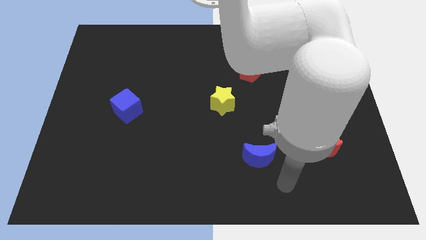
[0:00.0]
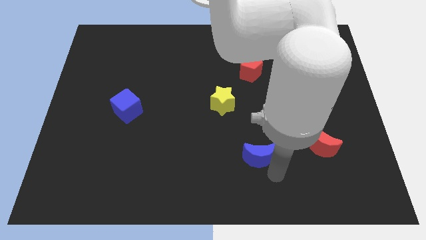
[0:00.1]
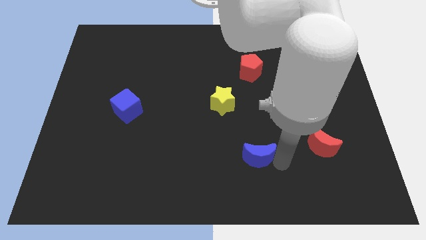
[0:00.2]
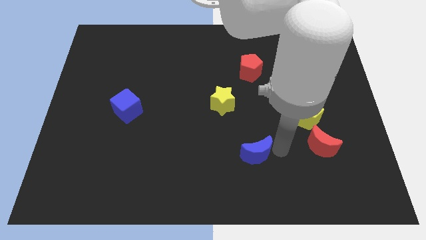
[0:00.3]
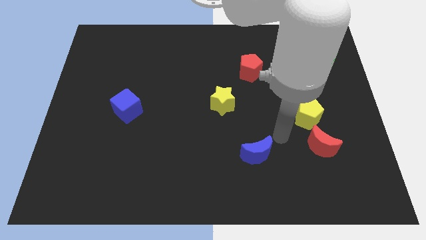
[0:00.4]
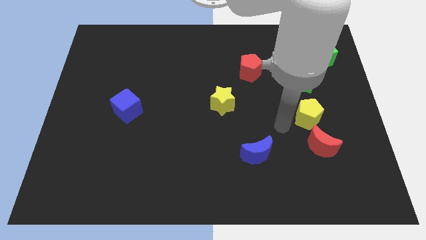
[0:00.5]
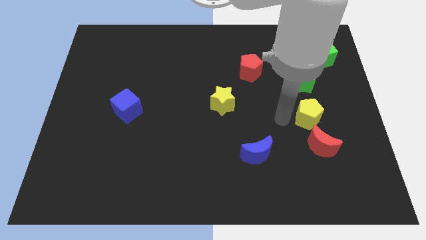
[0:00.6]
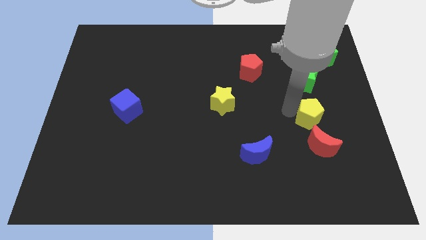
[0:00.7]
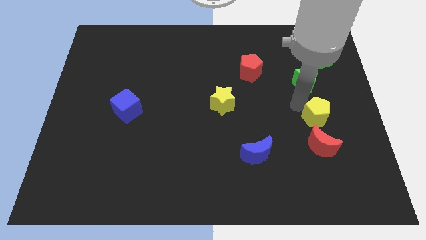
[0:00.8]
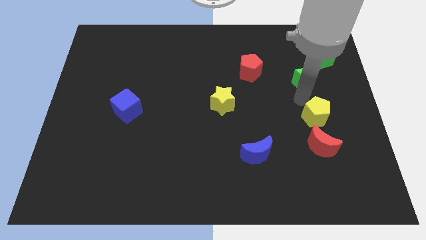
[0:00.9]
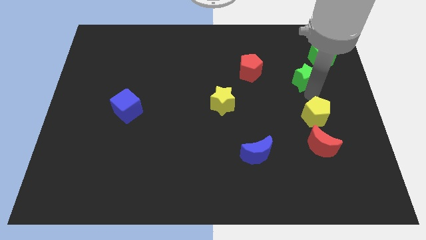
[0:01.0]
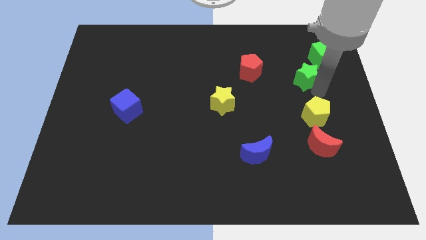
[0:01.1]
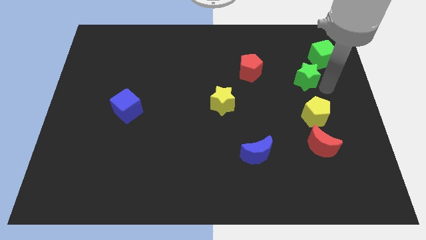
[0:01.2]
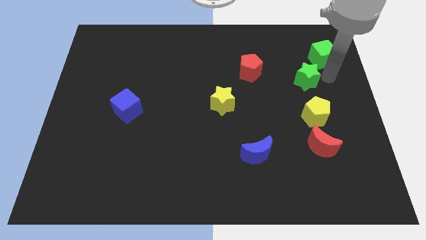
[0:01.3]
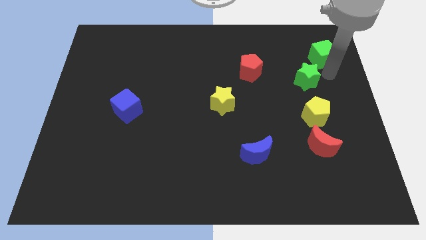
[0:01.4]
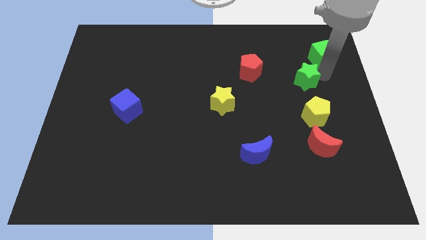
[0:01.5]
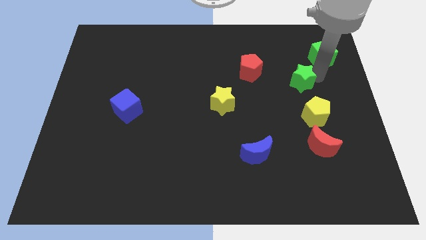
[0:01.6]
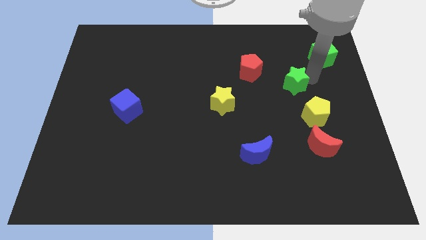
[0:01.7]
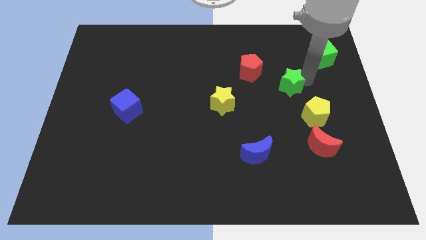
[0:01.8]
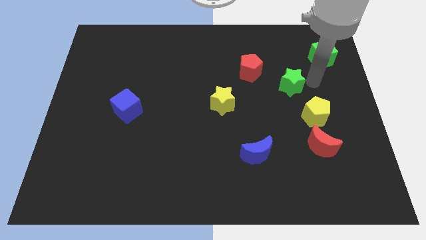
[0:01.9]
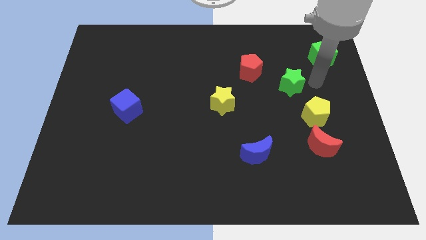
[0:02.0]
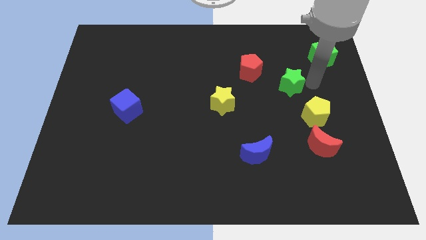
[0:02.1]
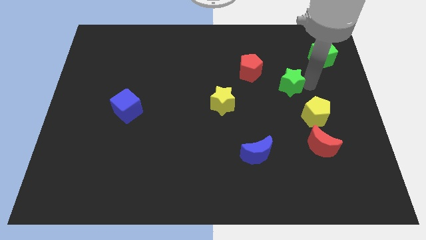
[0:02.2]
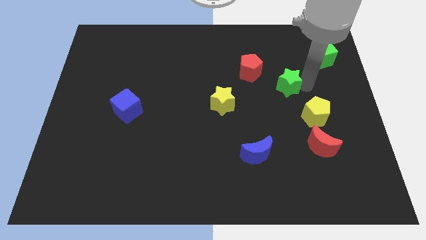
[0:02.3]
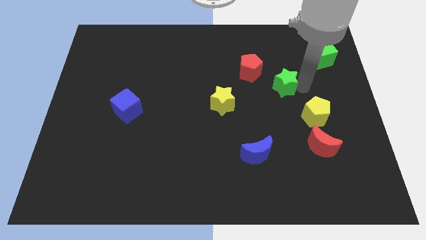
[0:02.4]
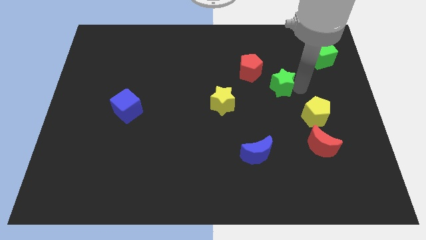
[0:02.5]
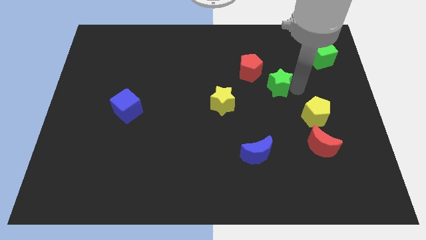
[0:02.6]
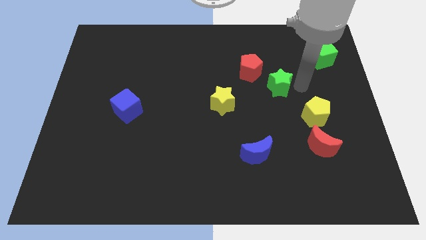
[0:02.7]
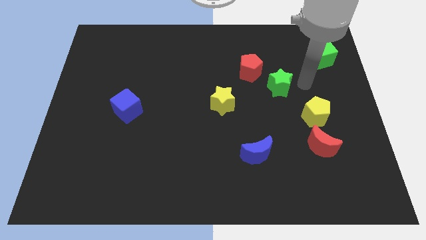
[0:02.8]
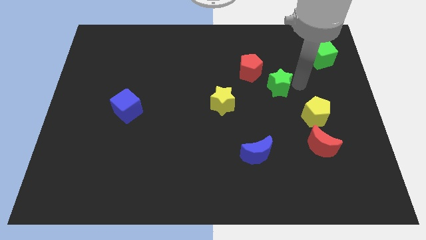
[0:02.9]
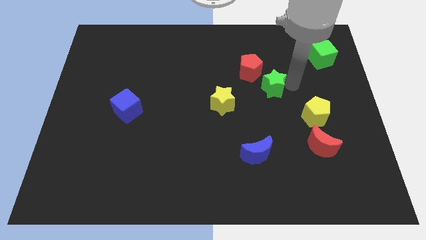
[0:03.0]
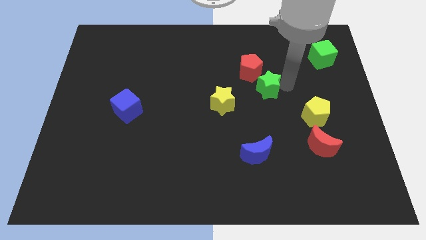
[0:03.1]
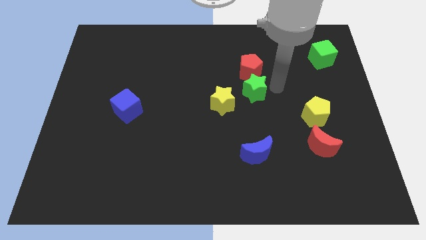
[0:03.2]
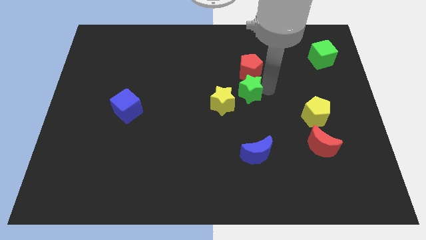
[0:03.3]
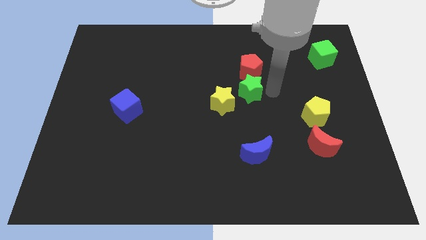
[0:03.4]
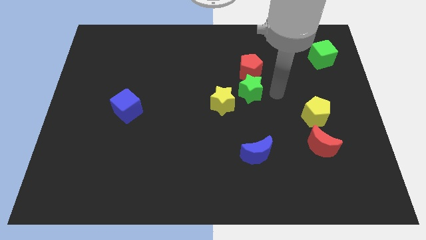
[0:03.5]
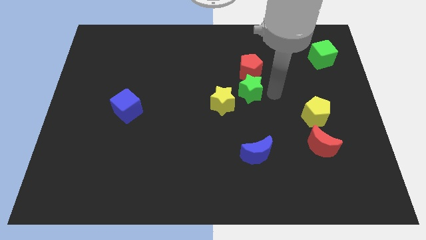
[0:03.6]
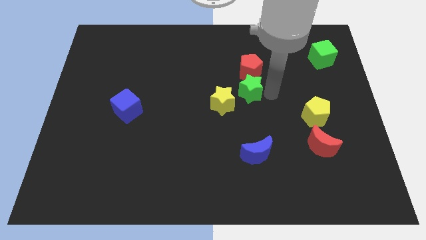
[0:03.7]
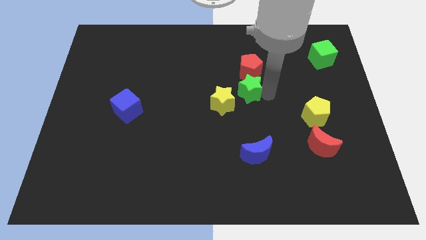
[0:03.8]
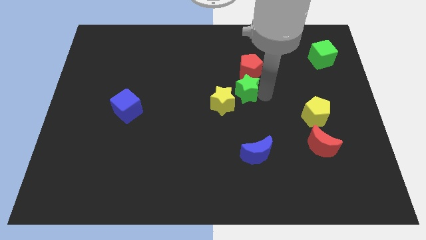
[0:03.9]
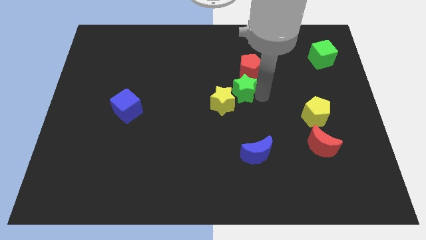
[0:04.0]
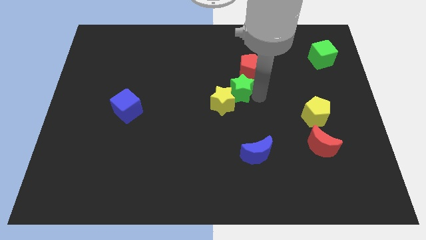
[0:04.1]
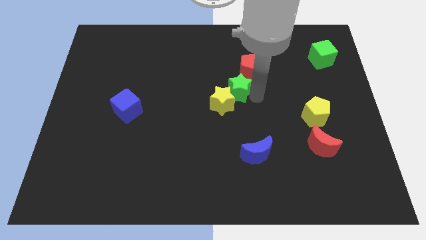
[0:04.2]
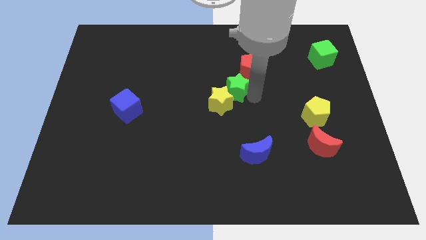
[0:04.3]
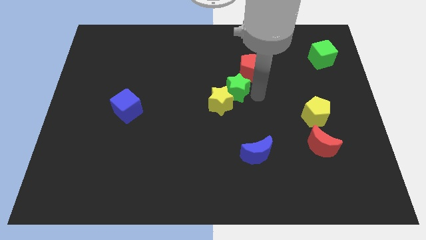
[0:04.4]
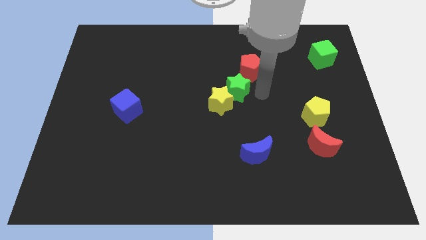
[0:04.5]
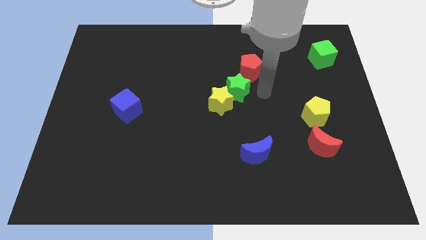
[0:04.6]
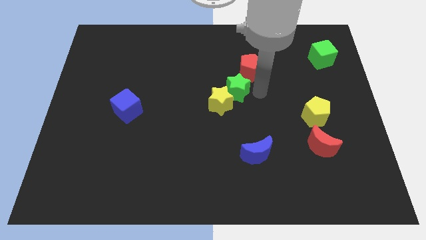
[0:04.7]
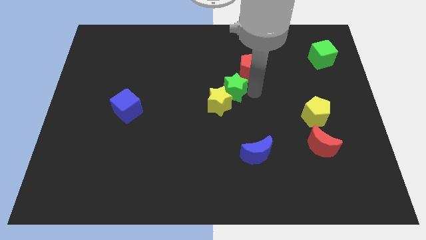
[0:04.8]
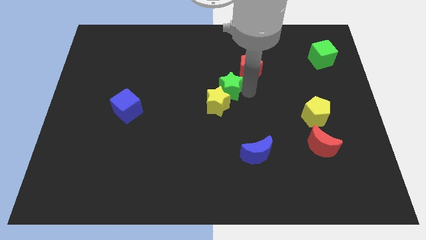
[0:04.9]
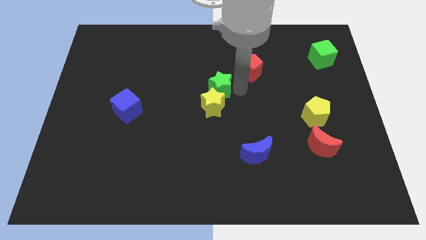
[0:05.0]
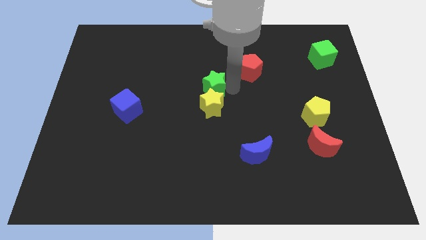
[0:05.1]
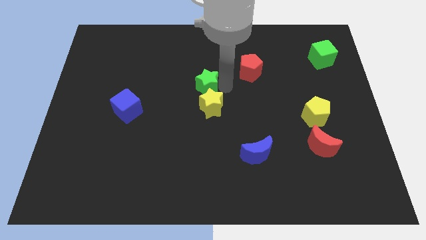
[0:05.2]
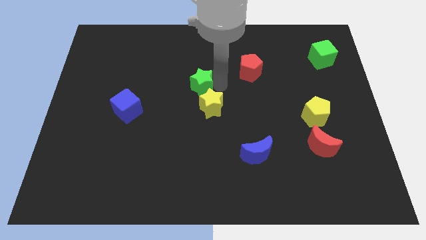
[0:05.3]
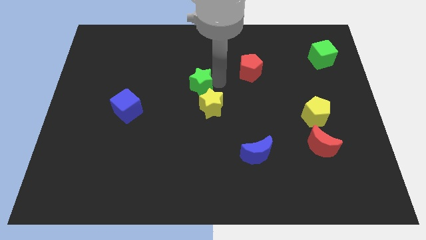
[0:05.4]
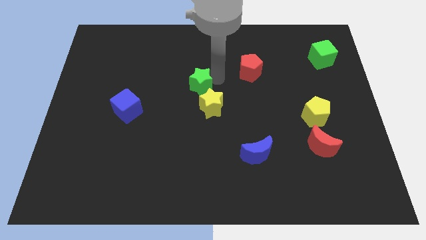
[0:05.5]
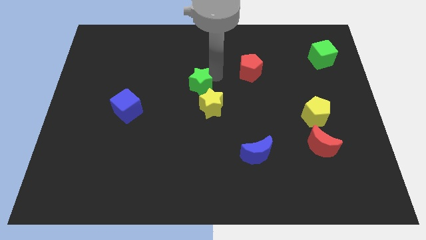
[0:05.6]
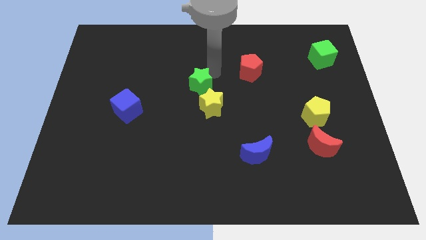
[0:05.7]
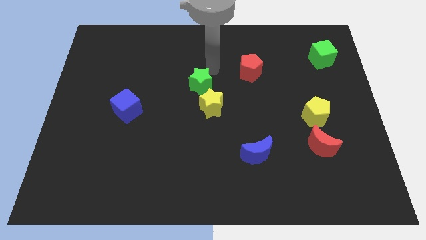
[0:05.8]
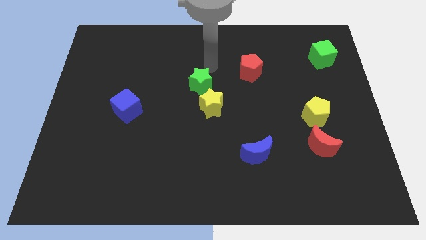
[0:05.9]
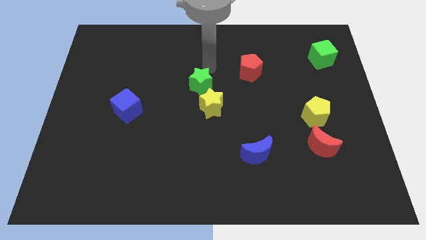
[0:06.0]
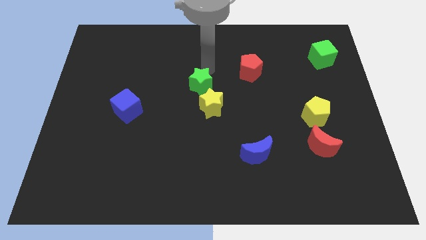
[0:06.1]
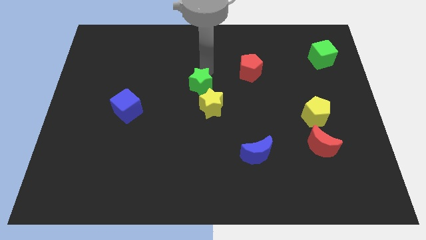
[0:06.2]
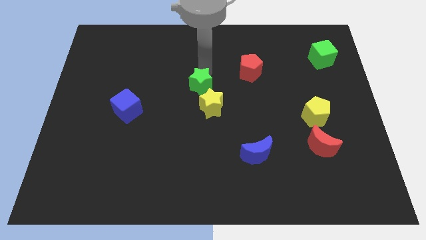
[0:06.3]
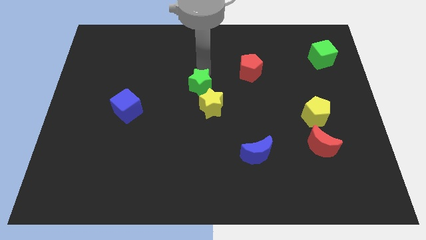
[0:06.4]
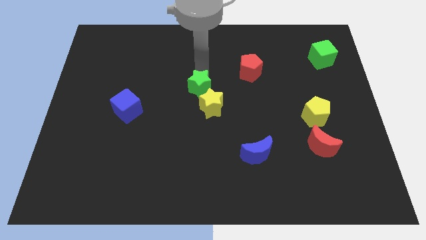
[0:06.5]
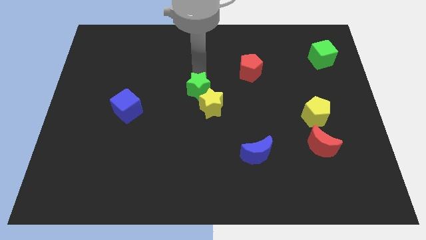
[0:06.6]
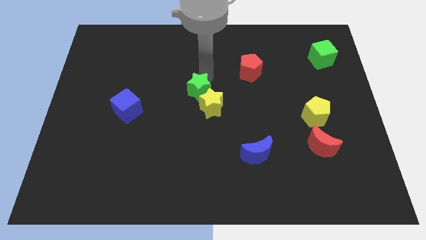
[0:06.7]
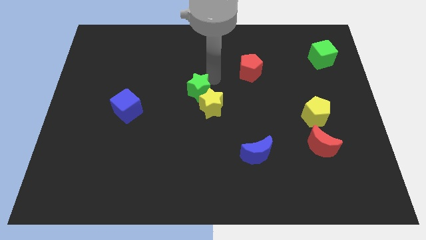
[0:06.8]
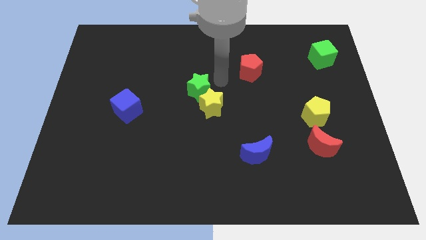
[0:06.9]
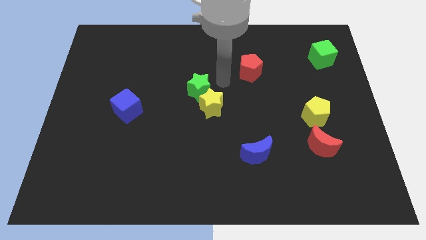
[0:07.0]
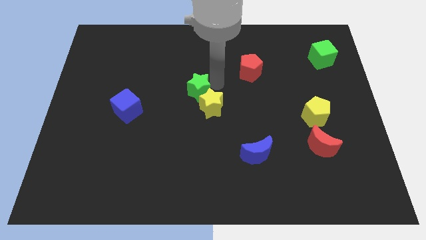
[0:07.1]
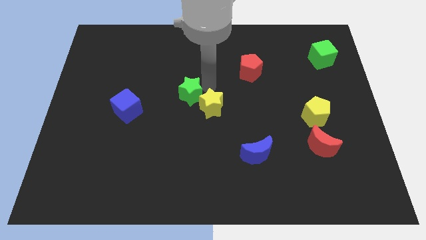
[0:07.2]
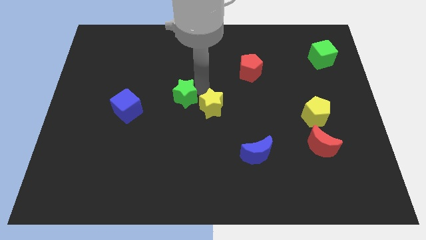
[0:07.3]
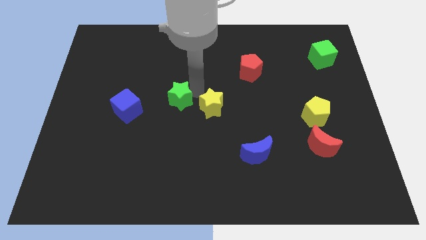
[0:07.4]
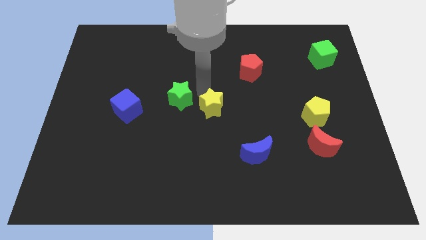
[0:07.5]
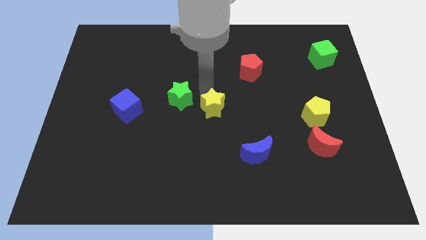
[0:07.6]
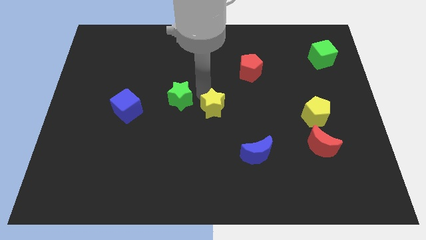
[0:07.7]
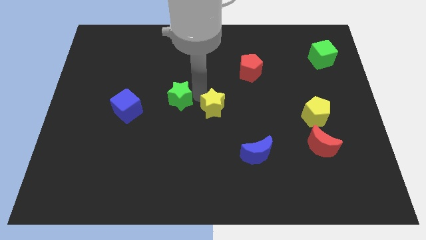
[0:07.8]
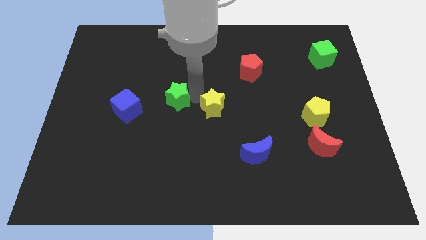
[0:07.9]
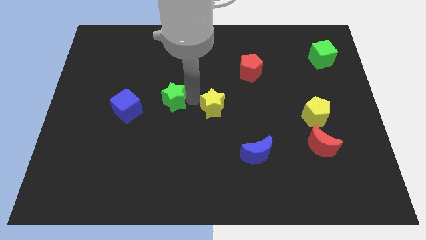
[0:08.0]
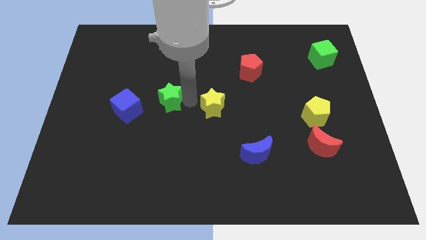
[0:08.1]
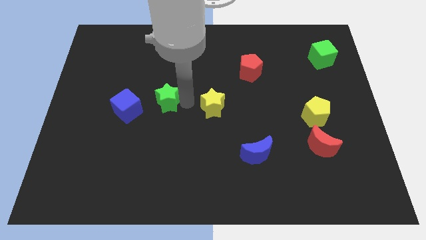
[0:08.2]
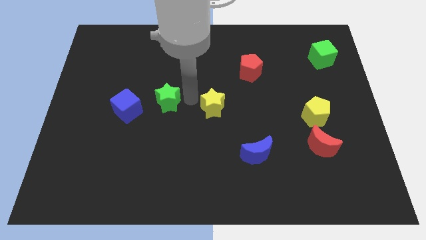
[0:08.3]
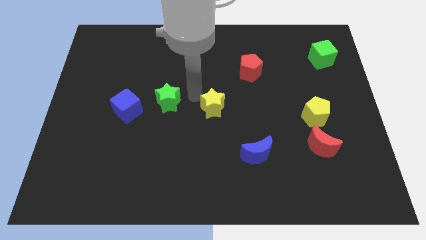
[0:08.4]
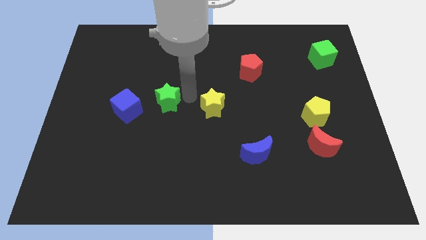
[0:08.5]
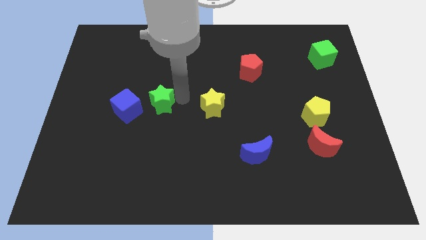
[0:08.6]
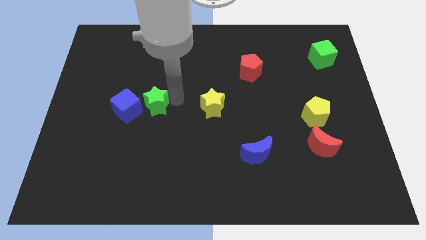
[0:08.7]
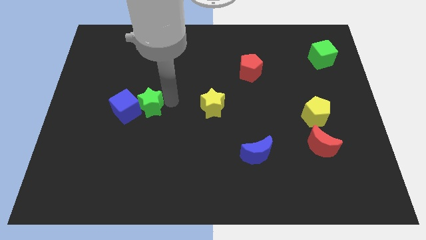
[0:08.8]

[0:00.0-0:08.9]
move the green star next to the blue cube
